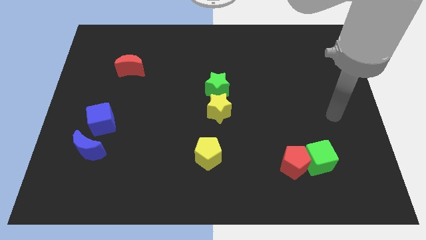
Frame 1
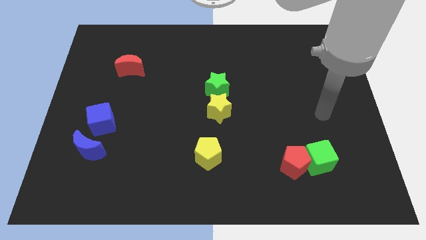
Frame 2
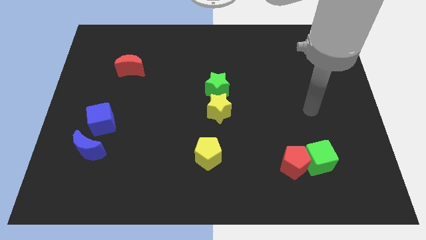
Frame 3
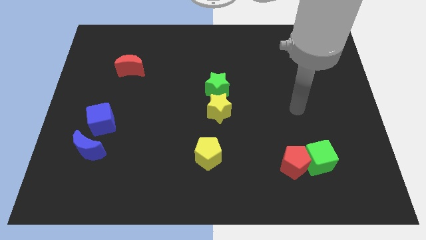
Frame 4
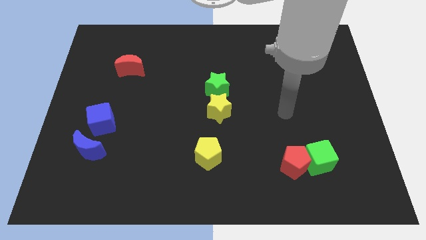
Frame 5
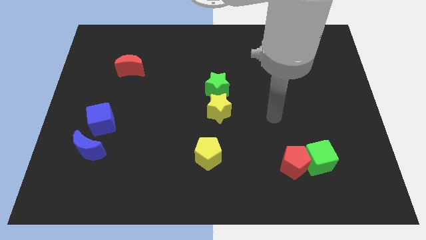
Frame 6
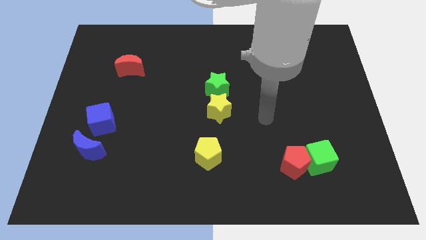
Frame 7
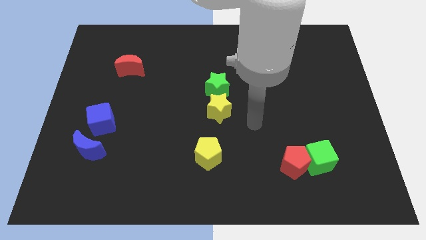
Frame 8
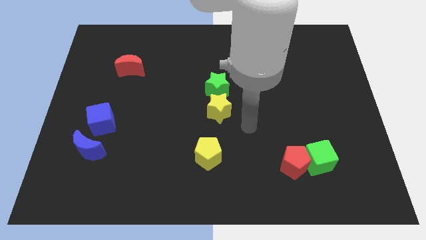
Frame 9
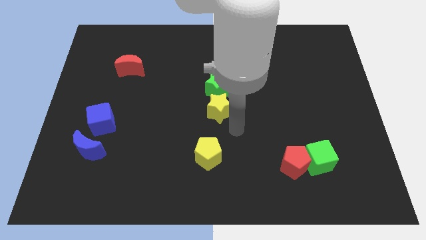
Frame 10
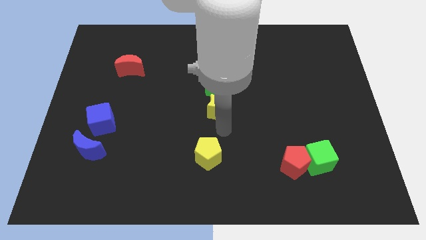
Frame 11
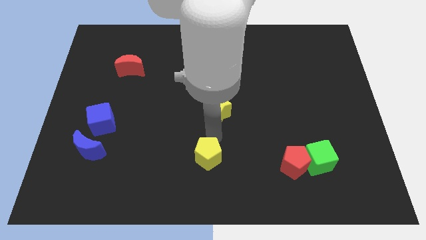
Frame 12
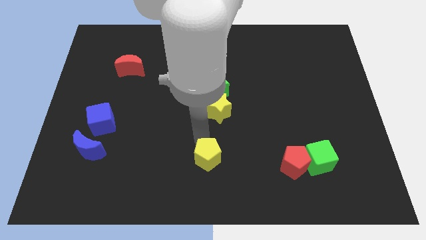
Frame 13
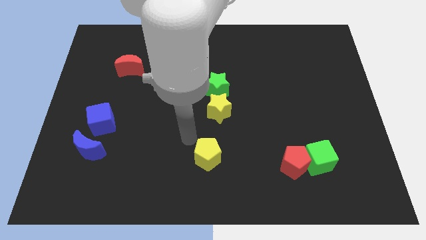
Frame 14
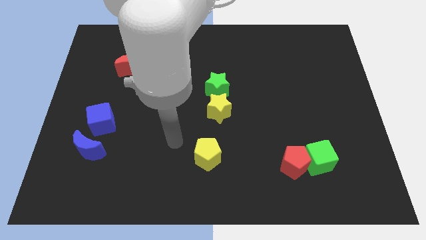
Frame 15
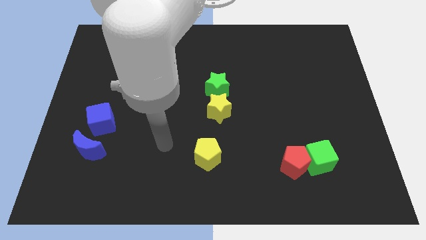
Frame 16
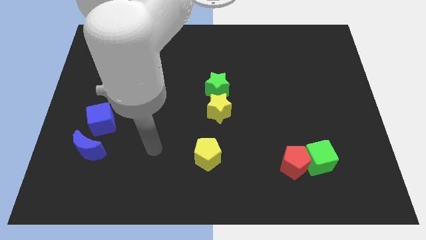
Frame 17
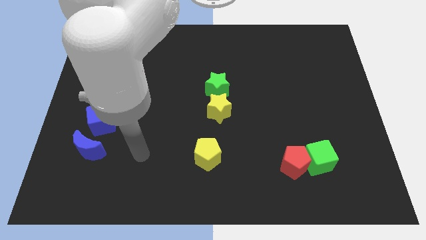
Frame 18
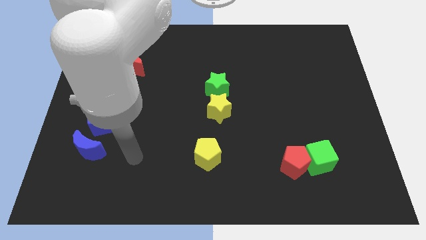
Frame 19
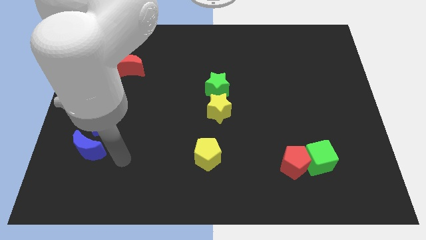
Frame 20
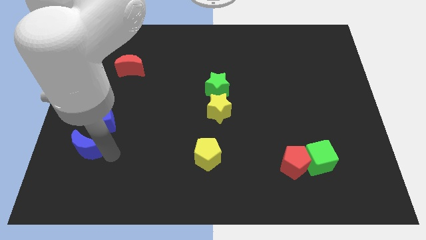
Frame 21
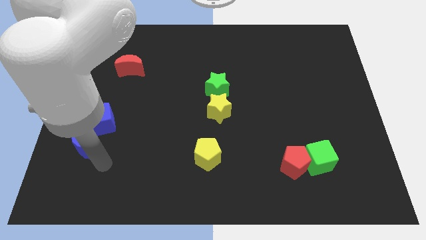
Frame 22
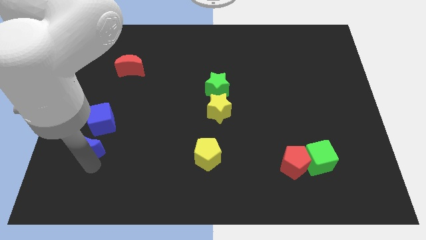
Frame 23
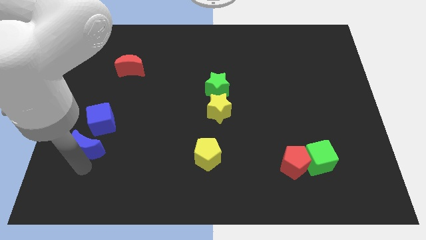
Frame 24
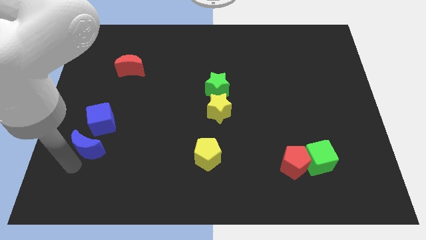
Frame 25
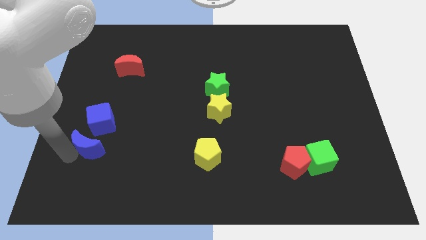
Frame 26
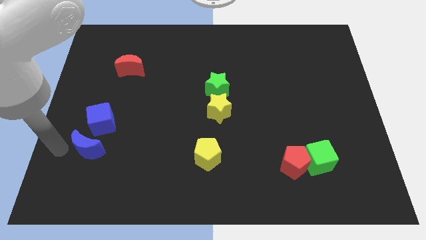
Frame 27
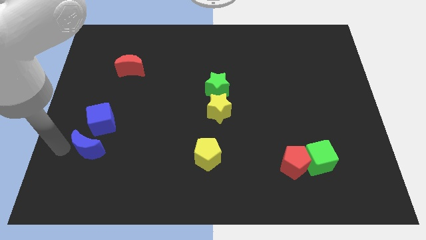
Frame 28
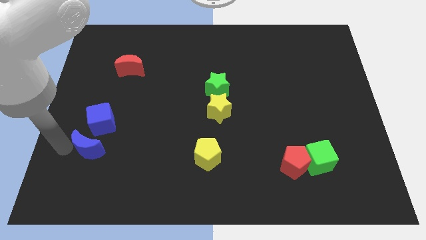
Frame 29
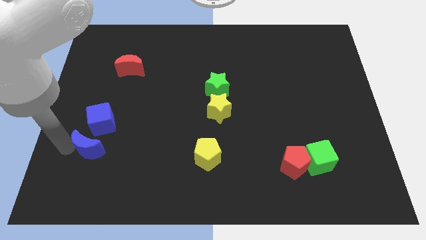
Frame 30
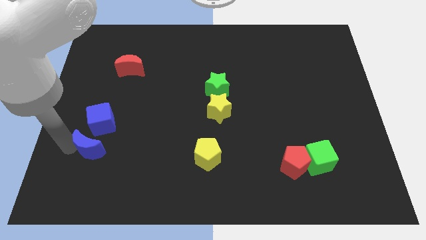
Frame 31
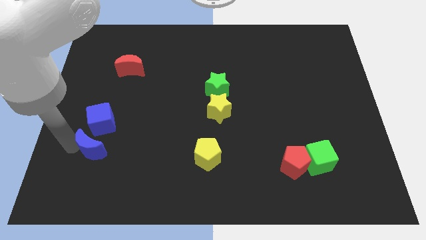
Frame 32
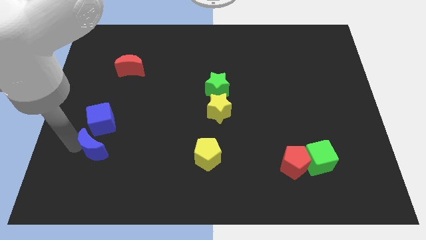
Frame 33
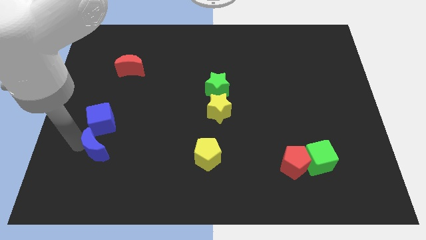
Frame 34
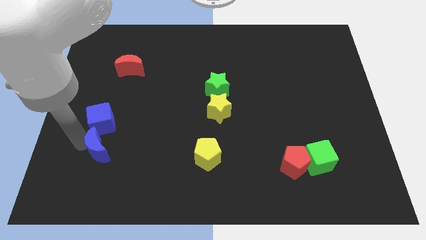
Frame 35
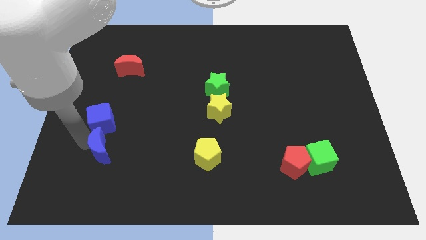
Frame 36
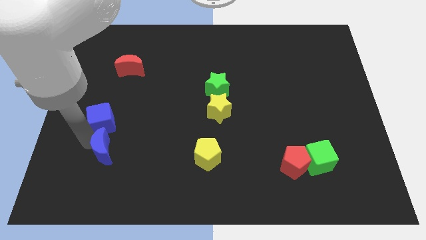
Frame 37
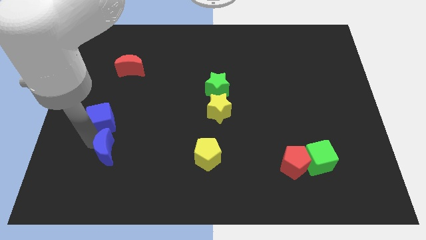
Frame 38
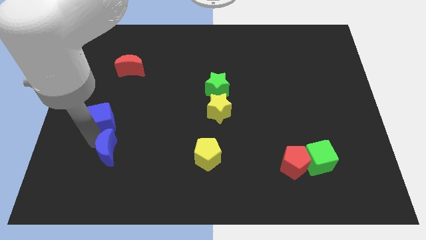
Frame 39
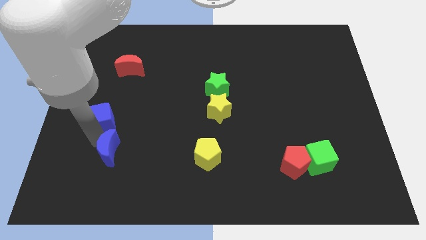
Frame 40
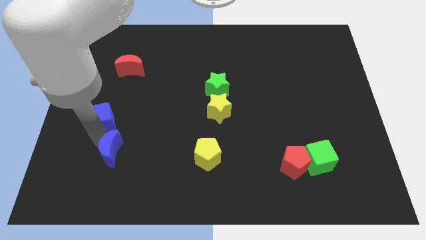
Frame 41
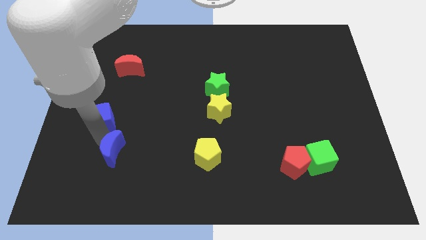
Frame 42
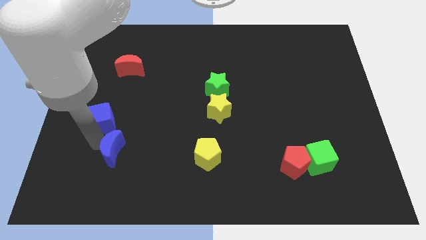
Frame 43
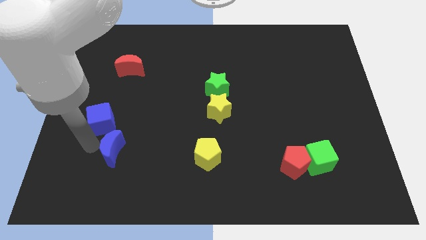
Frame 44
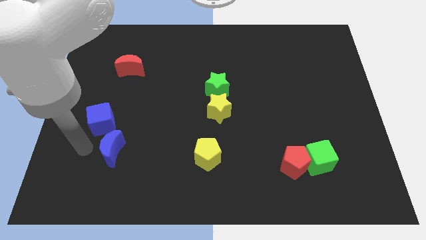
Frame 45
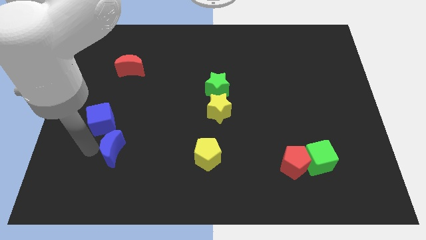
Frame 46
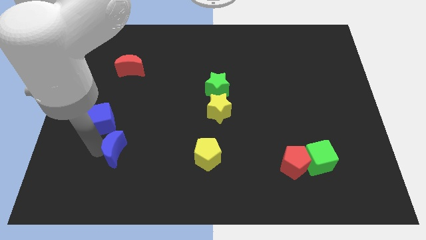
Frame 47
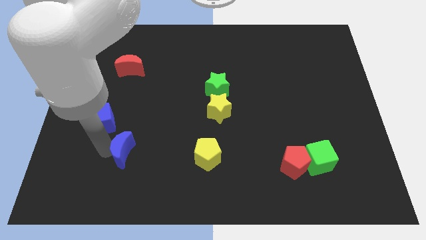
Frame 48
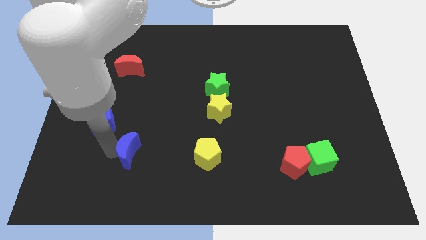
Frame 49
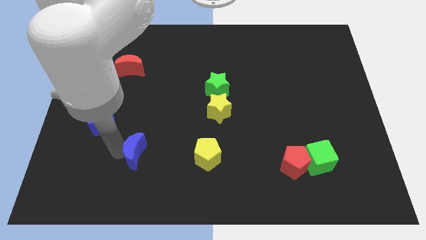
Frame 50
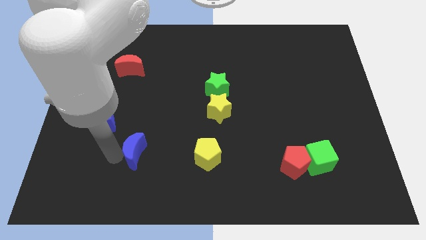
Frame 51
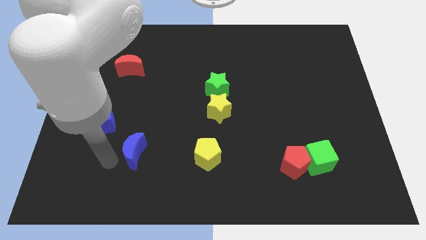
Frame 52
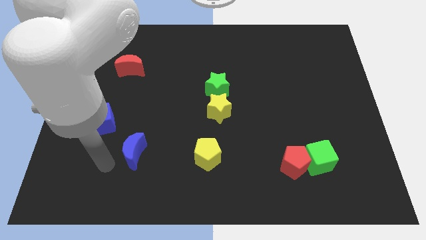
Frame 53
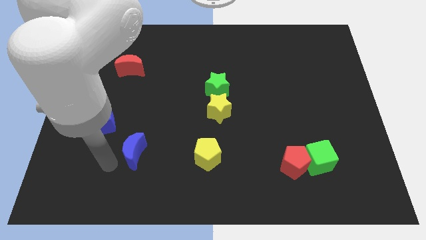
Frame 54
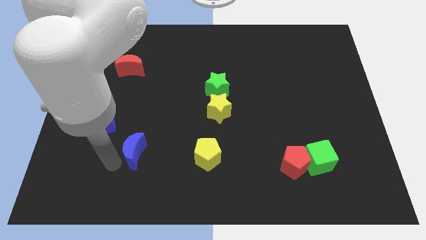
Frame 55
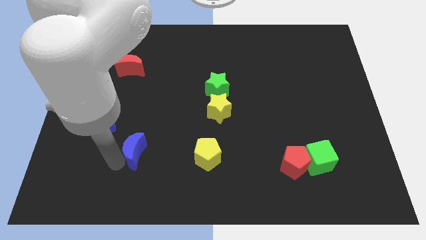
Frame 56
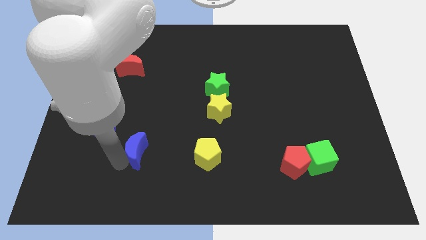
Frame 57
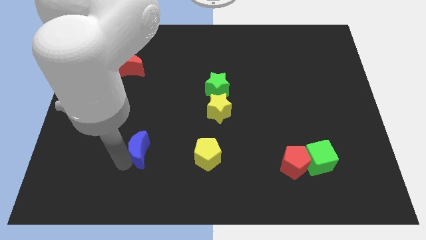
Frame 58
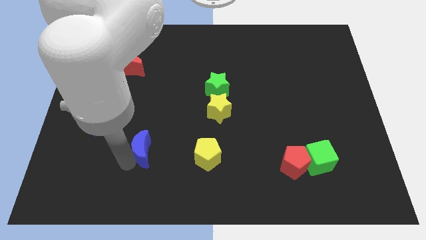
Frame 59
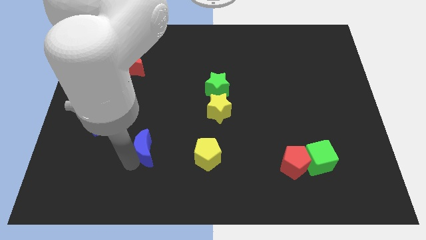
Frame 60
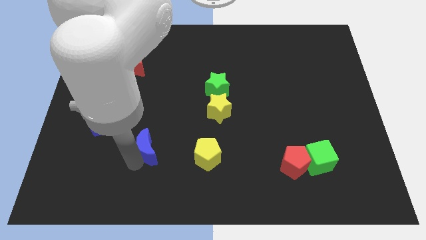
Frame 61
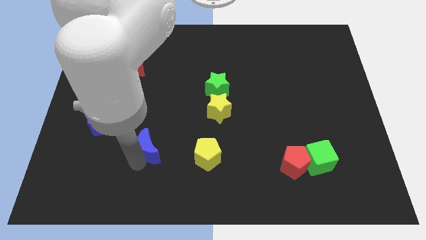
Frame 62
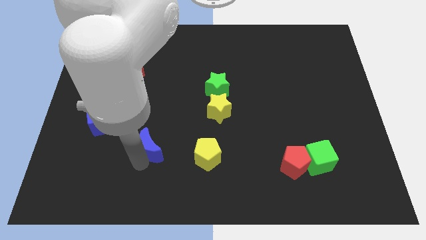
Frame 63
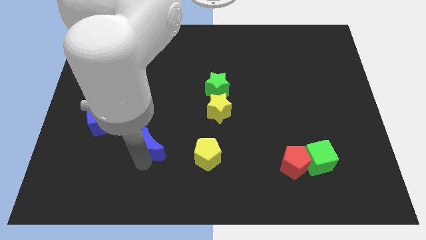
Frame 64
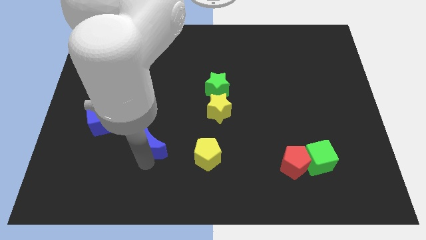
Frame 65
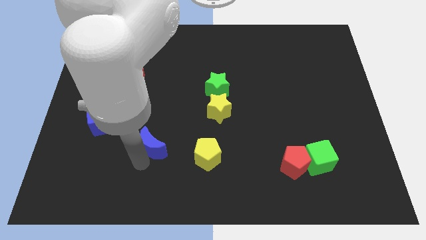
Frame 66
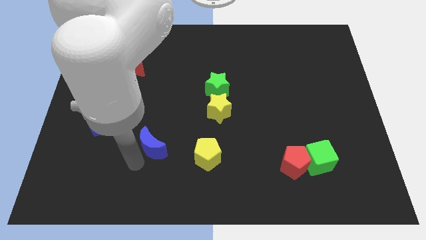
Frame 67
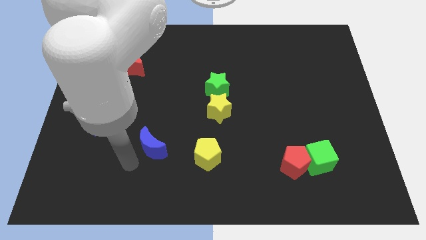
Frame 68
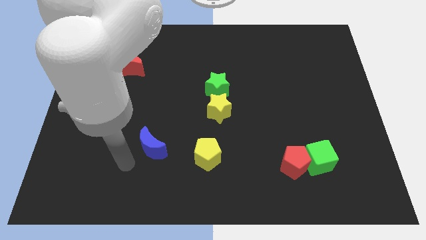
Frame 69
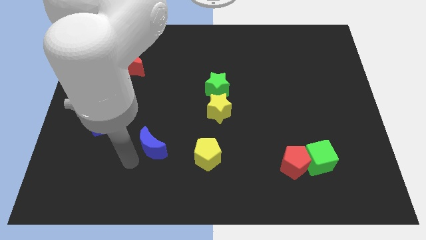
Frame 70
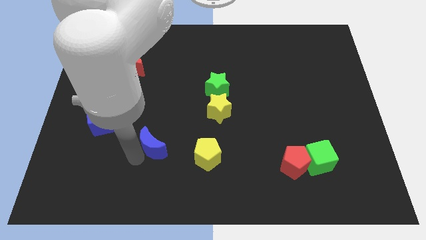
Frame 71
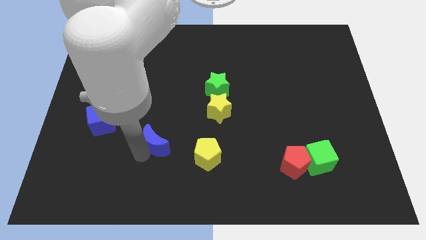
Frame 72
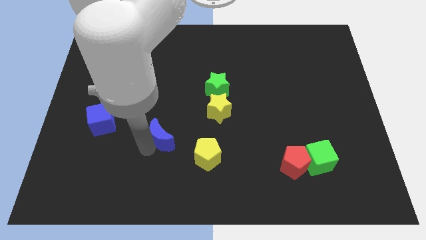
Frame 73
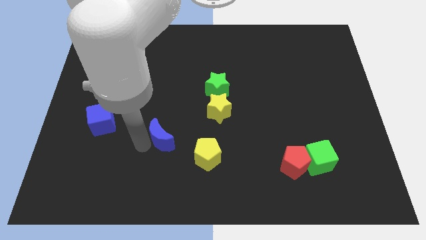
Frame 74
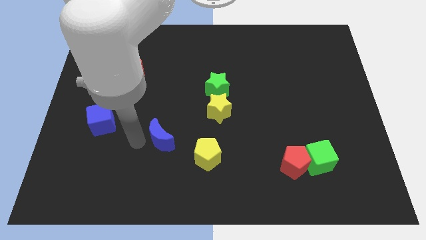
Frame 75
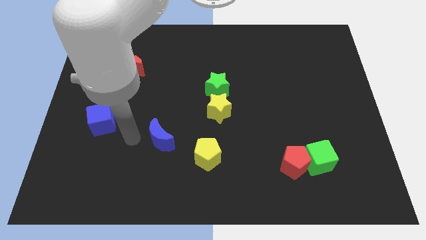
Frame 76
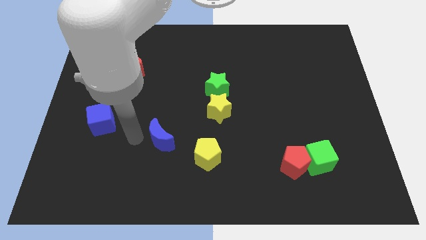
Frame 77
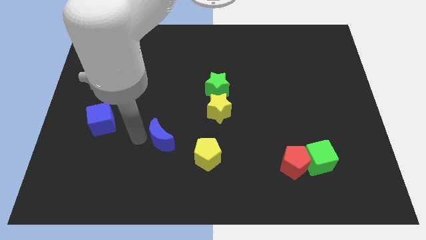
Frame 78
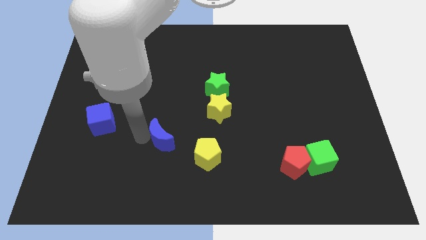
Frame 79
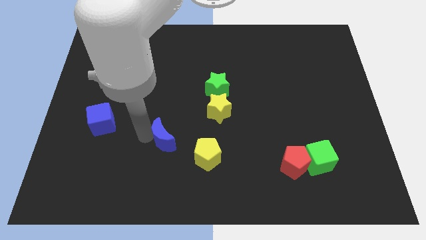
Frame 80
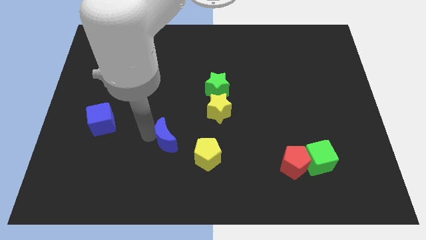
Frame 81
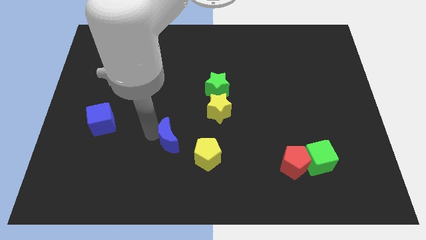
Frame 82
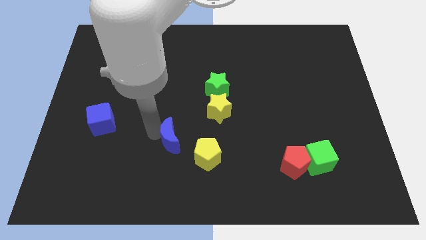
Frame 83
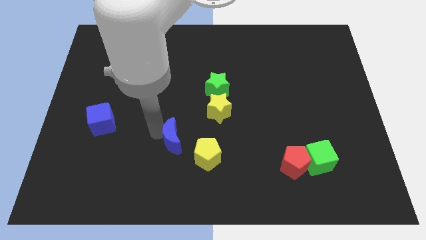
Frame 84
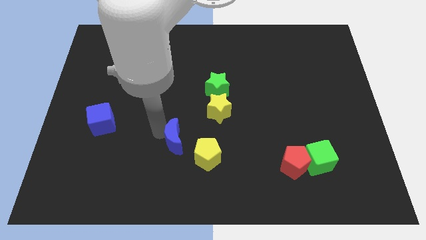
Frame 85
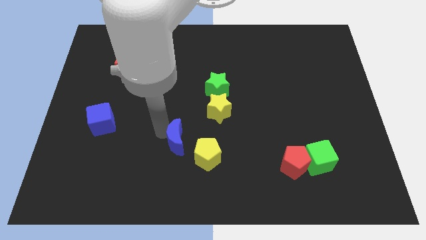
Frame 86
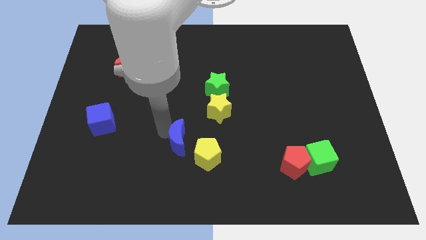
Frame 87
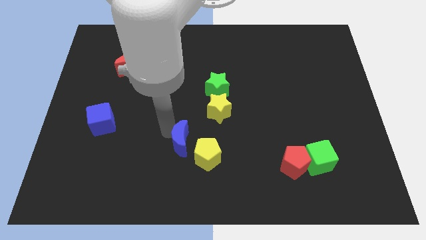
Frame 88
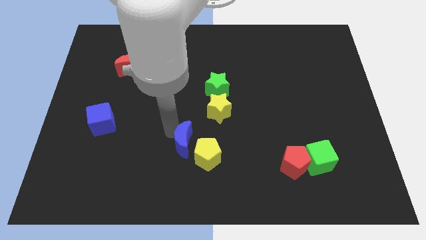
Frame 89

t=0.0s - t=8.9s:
slide the blue moon to the right
